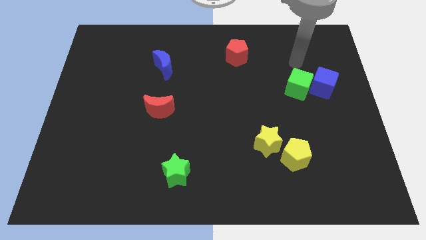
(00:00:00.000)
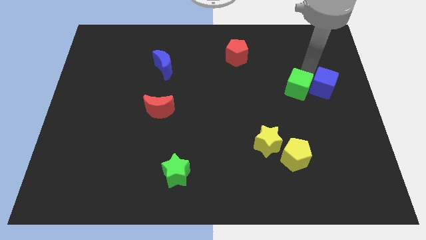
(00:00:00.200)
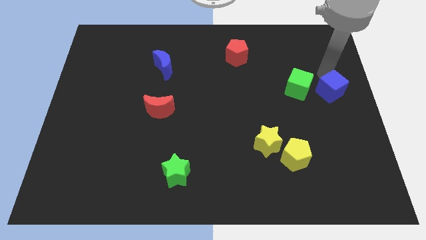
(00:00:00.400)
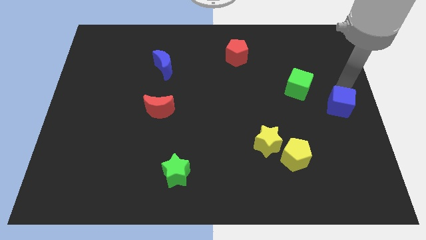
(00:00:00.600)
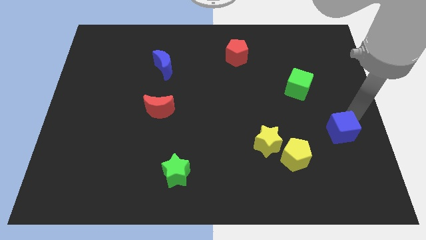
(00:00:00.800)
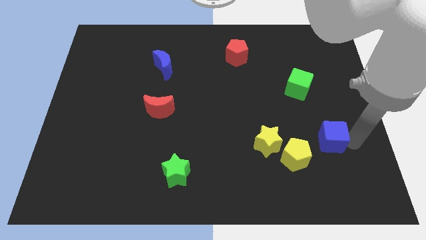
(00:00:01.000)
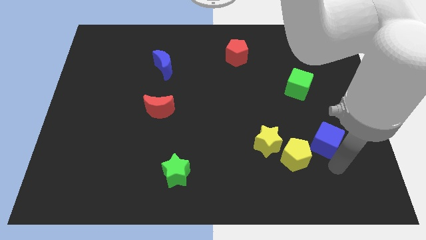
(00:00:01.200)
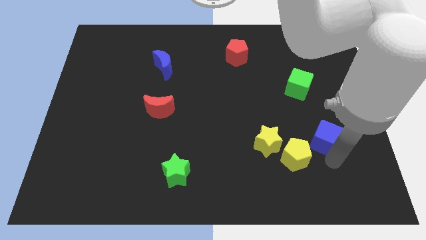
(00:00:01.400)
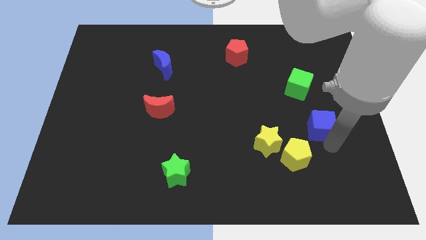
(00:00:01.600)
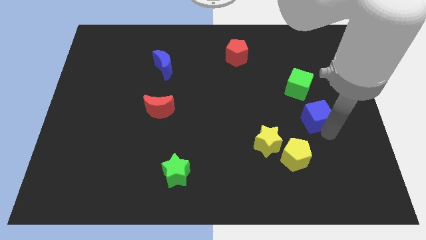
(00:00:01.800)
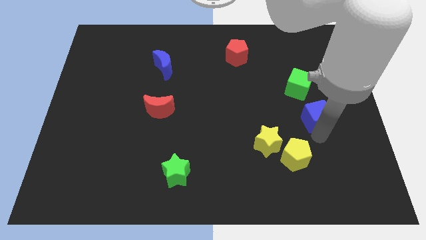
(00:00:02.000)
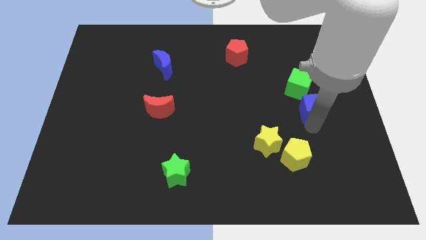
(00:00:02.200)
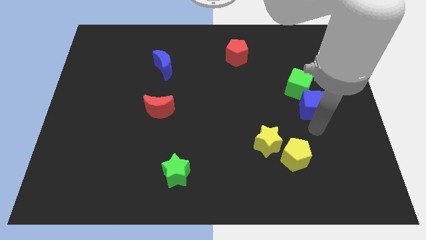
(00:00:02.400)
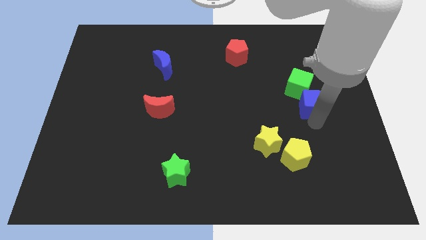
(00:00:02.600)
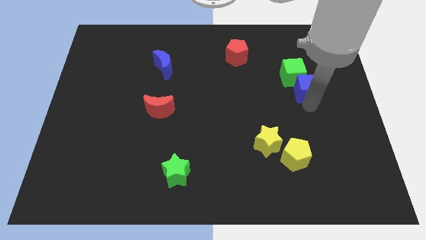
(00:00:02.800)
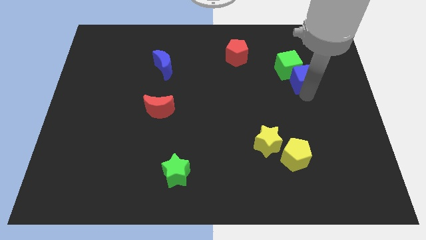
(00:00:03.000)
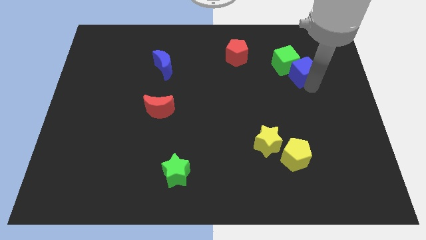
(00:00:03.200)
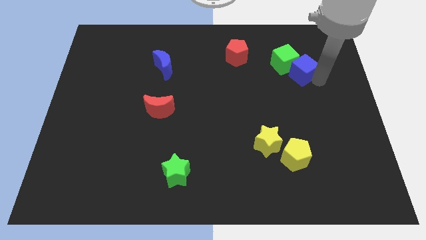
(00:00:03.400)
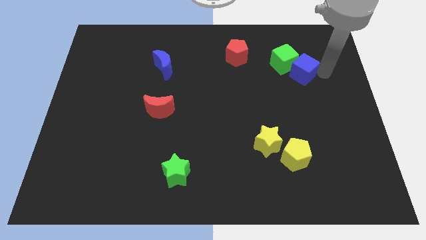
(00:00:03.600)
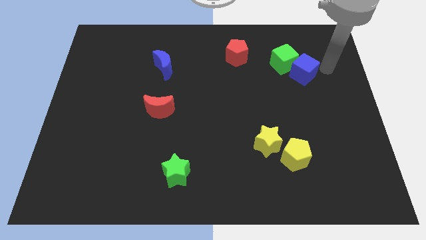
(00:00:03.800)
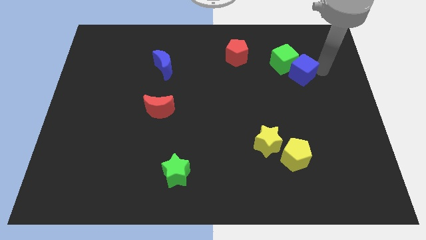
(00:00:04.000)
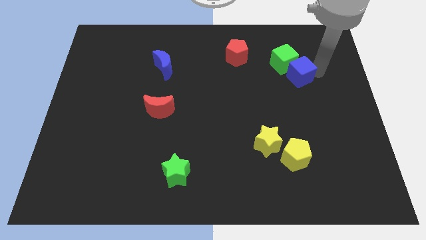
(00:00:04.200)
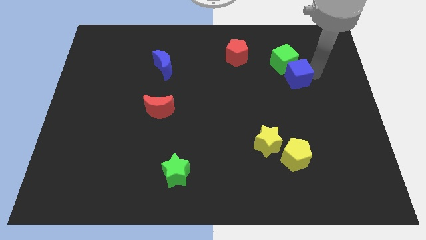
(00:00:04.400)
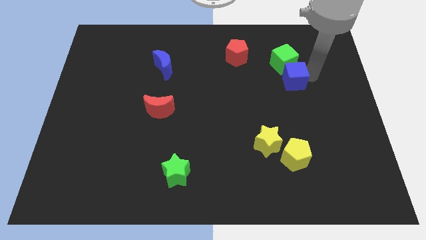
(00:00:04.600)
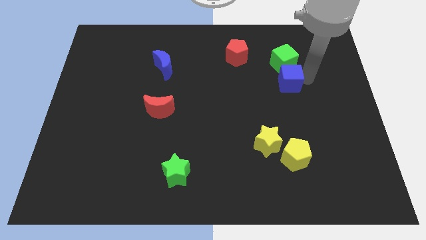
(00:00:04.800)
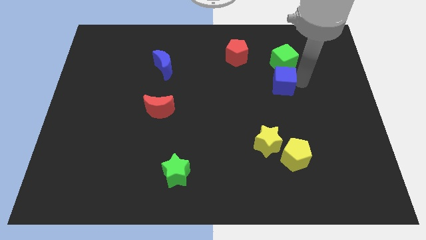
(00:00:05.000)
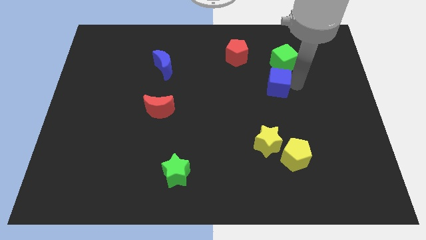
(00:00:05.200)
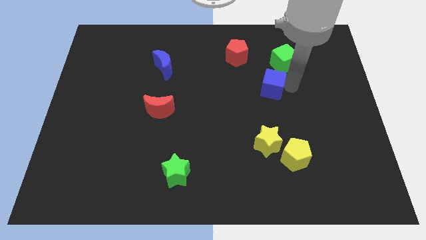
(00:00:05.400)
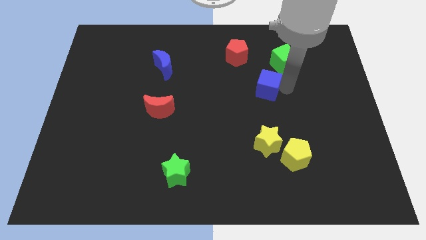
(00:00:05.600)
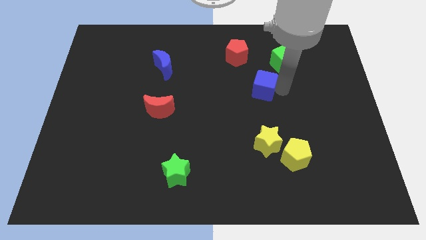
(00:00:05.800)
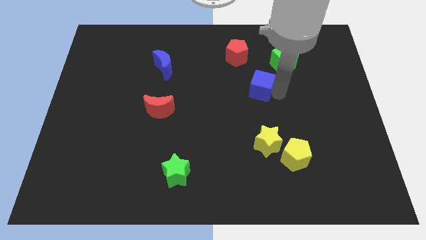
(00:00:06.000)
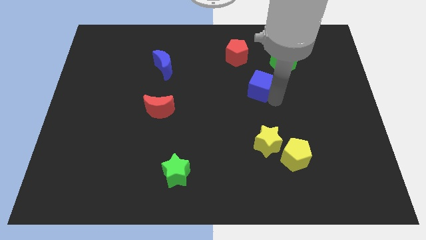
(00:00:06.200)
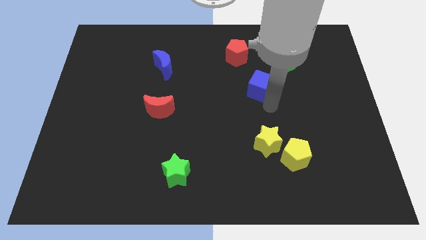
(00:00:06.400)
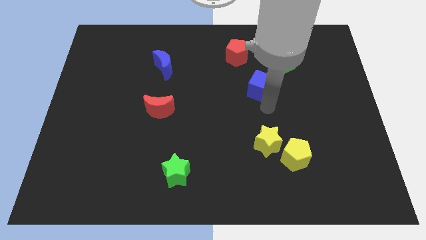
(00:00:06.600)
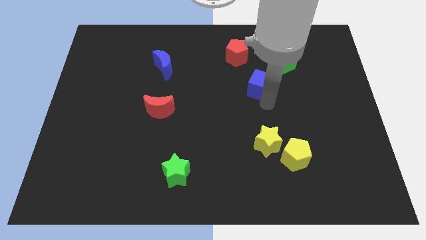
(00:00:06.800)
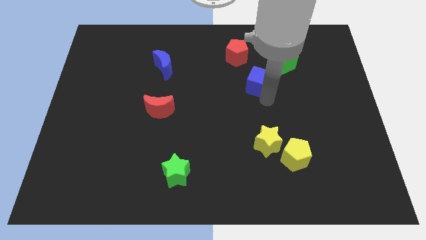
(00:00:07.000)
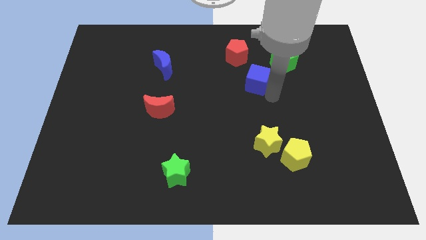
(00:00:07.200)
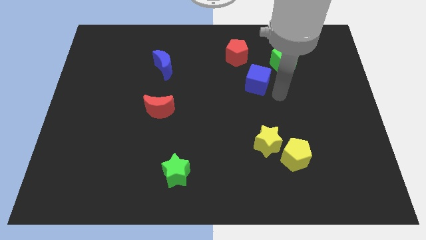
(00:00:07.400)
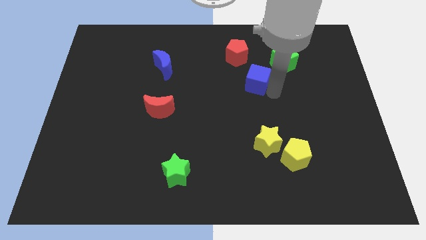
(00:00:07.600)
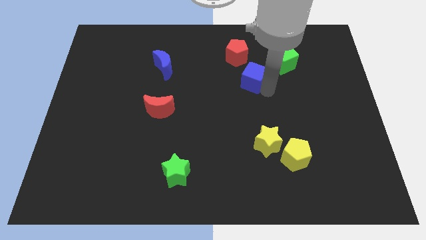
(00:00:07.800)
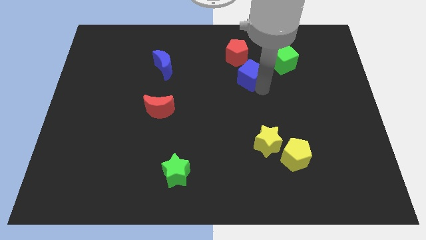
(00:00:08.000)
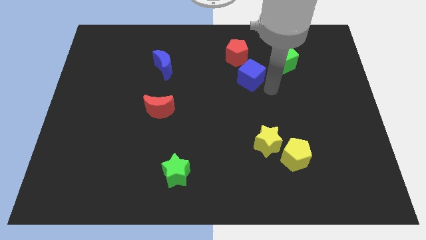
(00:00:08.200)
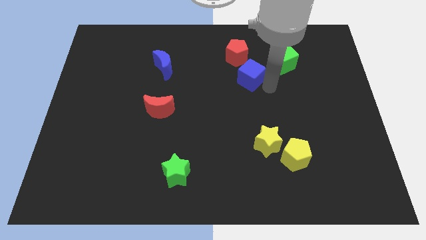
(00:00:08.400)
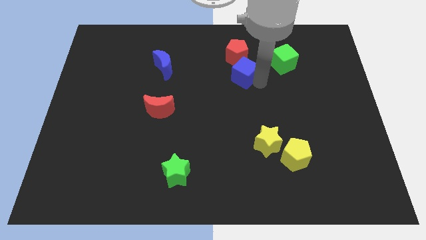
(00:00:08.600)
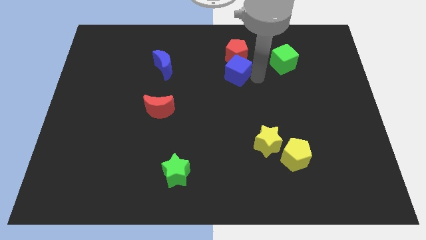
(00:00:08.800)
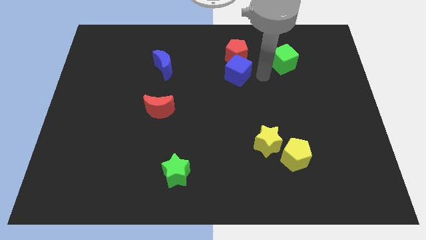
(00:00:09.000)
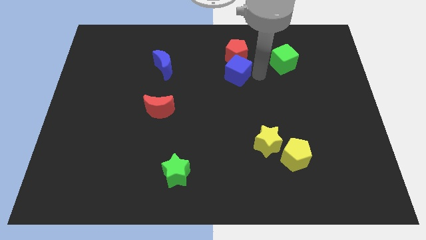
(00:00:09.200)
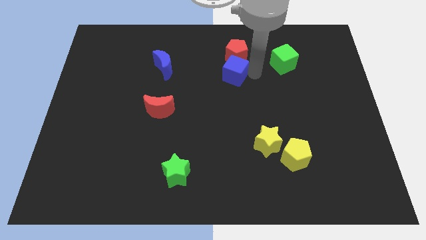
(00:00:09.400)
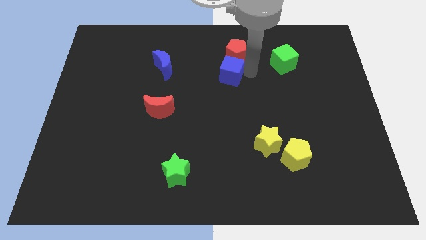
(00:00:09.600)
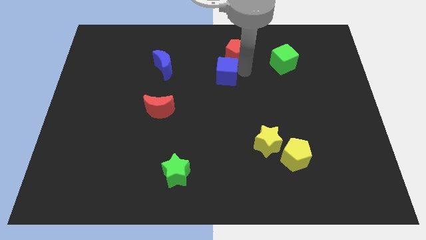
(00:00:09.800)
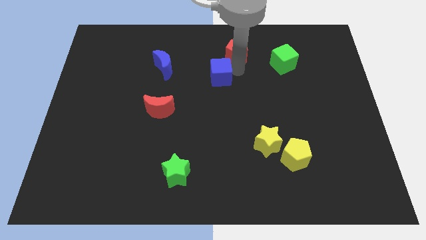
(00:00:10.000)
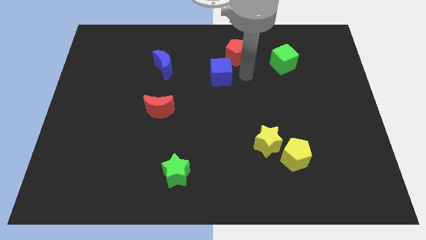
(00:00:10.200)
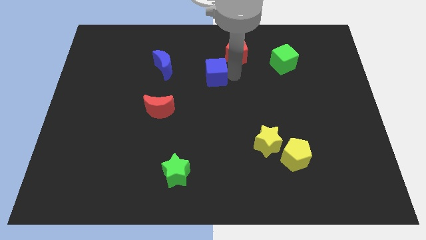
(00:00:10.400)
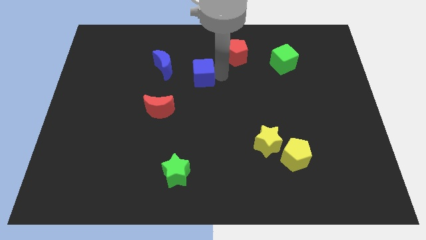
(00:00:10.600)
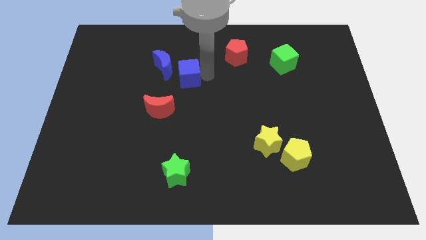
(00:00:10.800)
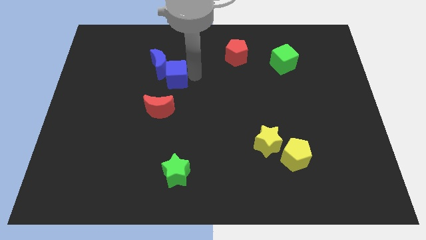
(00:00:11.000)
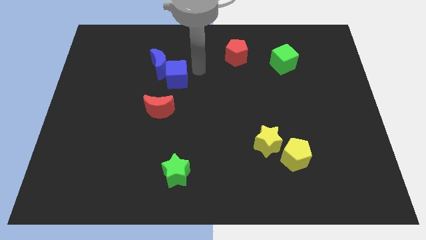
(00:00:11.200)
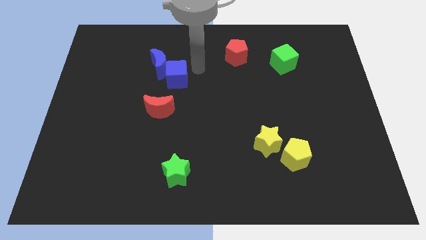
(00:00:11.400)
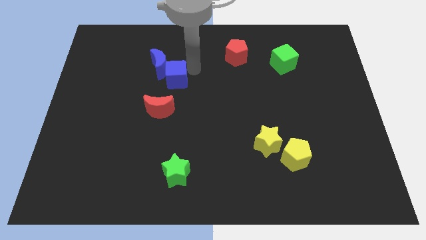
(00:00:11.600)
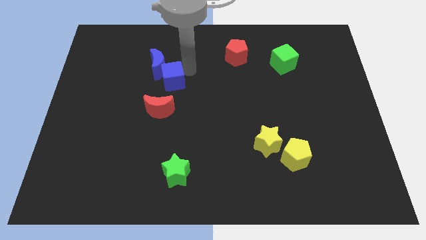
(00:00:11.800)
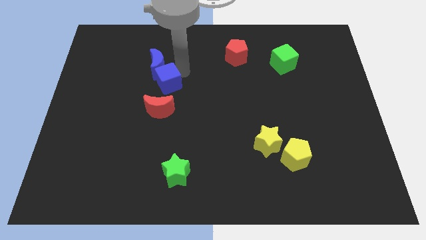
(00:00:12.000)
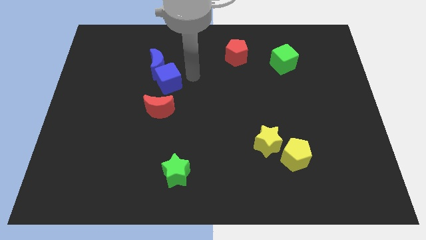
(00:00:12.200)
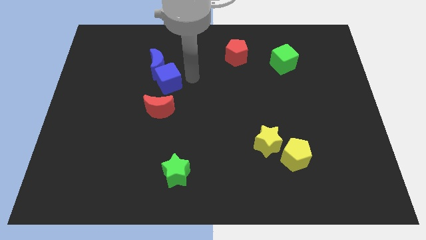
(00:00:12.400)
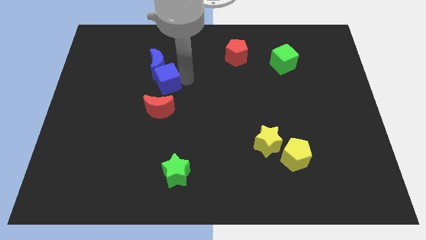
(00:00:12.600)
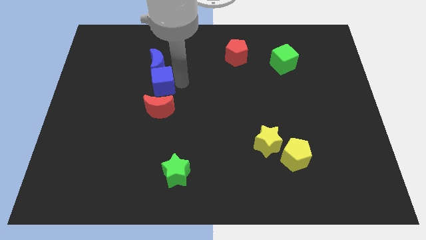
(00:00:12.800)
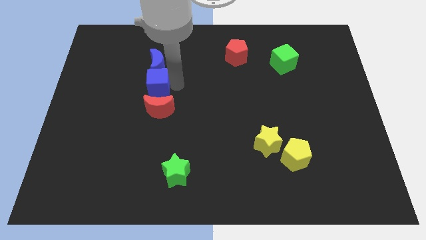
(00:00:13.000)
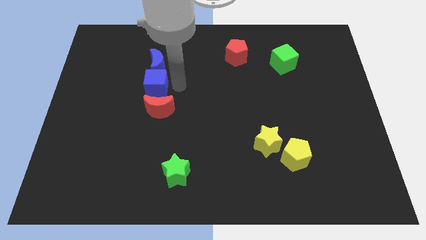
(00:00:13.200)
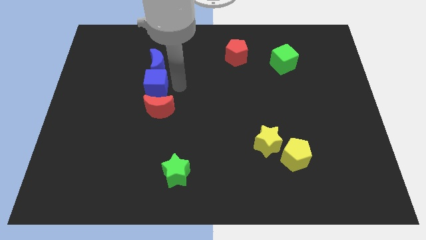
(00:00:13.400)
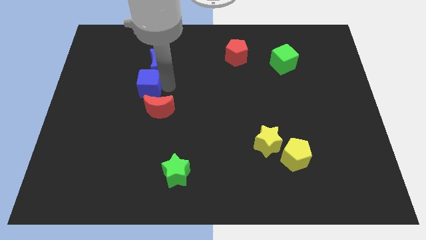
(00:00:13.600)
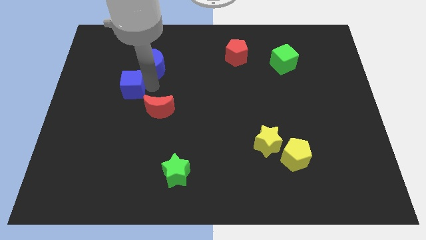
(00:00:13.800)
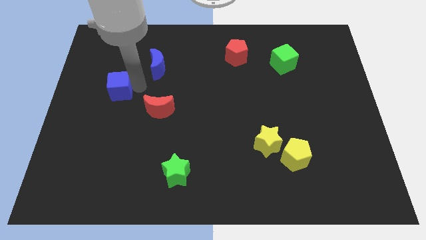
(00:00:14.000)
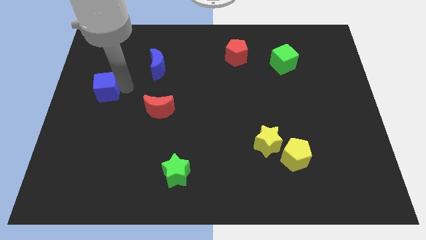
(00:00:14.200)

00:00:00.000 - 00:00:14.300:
move the blue cube to the center left
